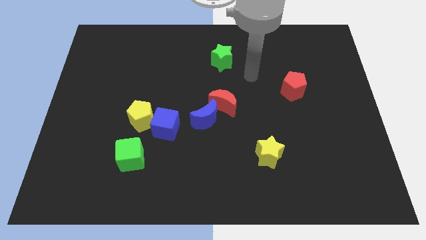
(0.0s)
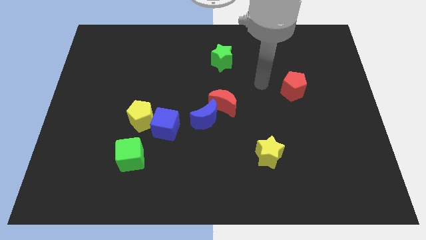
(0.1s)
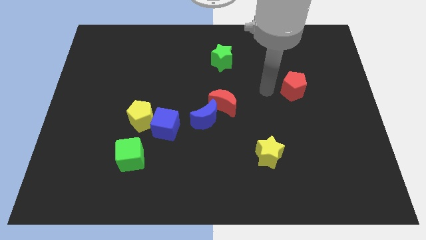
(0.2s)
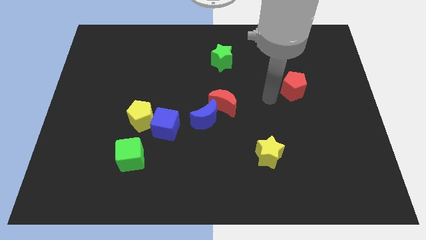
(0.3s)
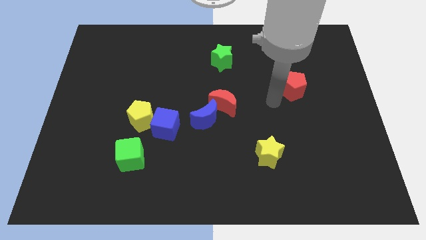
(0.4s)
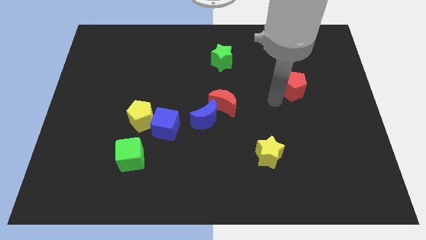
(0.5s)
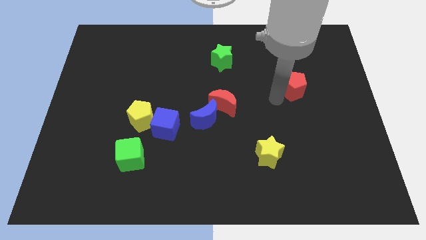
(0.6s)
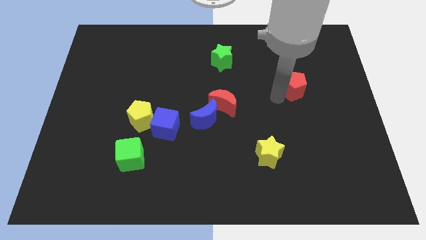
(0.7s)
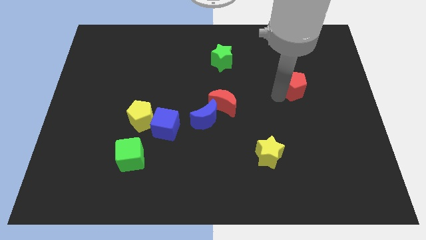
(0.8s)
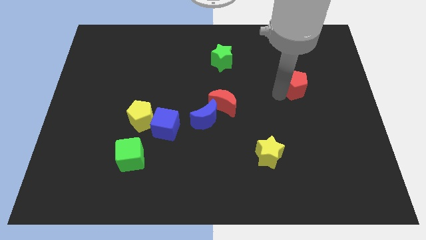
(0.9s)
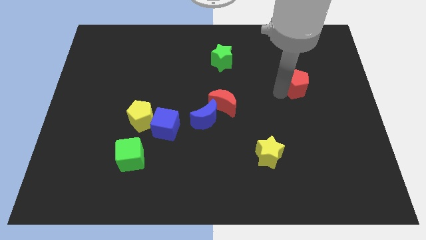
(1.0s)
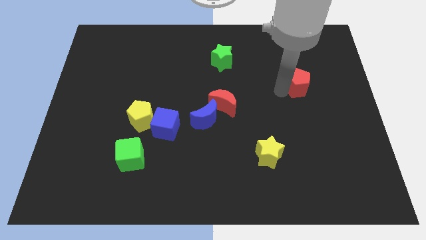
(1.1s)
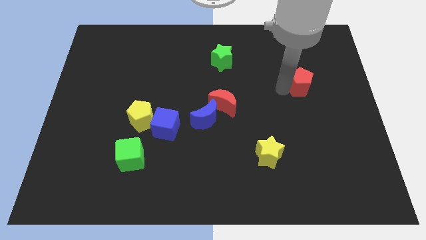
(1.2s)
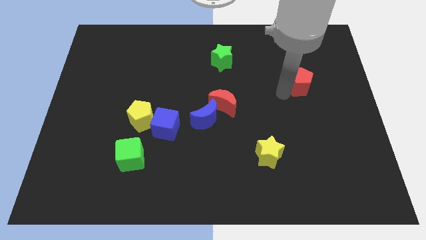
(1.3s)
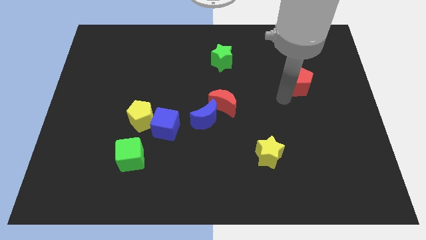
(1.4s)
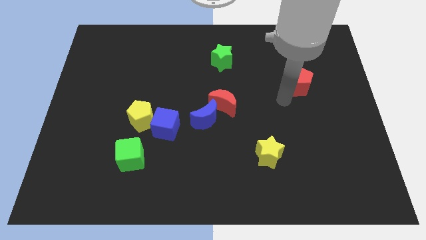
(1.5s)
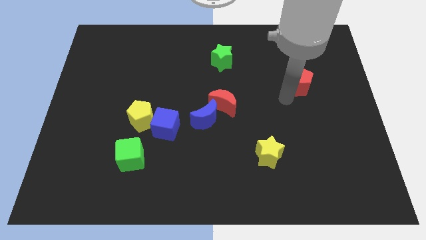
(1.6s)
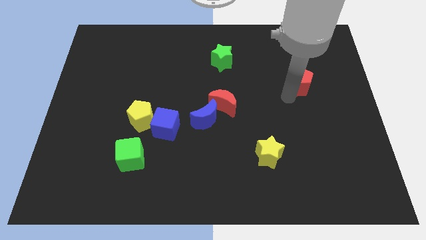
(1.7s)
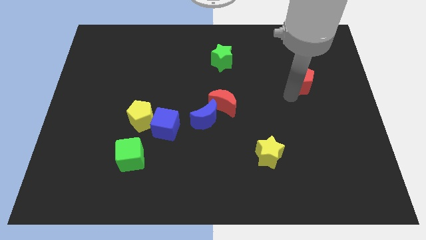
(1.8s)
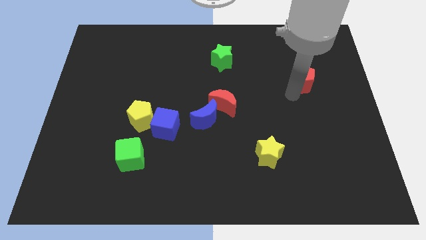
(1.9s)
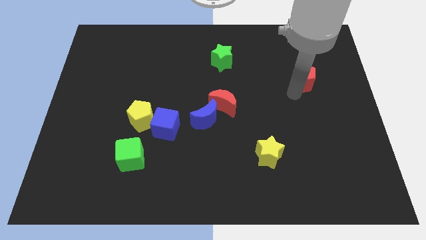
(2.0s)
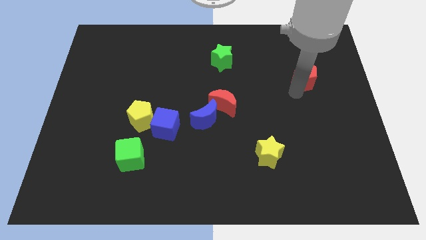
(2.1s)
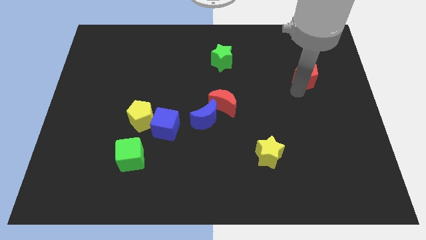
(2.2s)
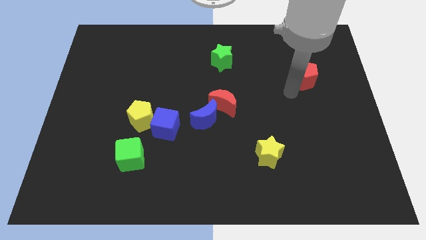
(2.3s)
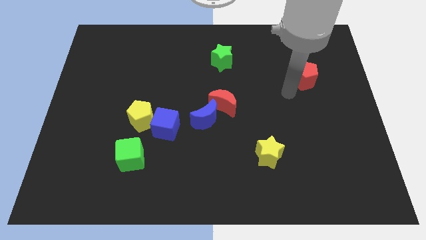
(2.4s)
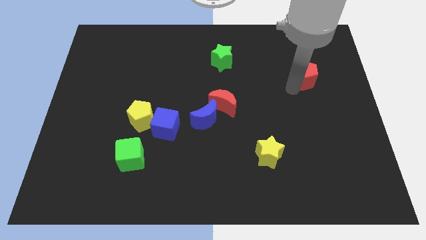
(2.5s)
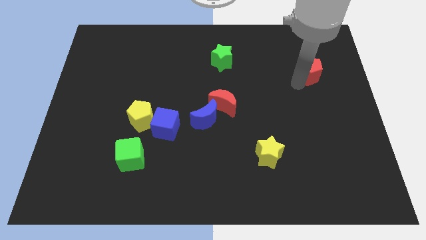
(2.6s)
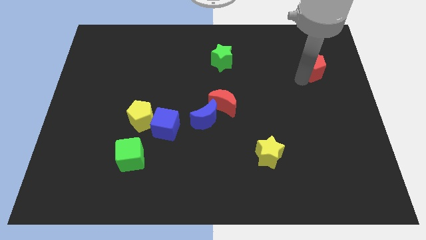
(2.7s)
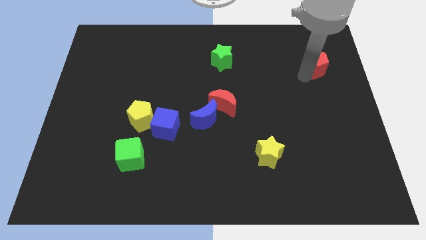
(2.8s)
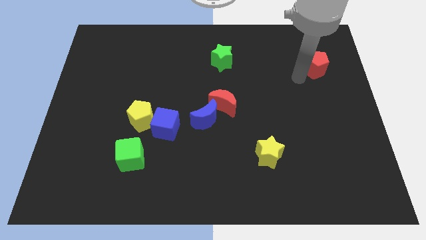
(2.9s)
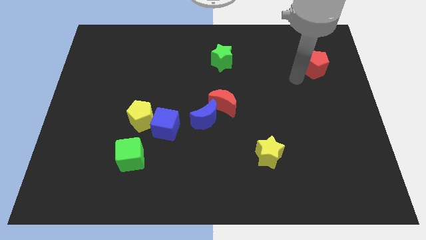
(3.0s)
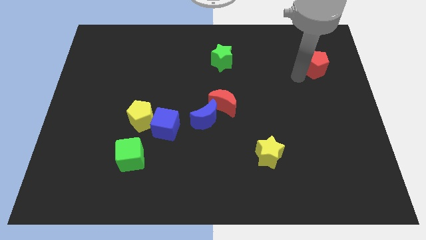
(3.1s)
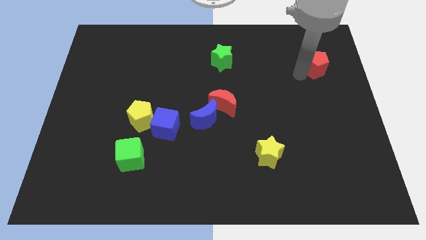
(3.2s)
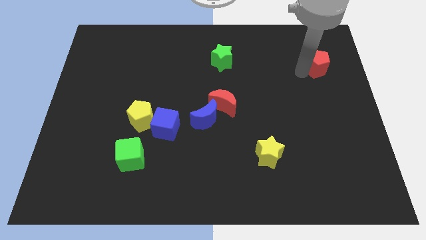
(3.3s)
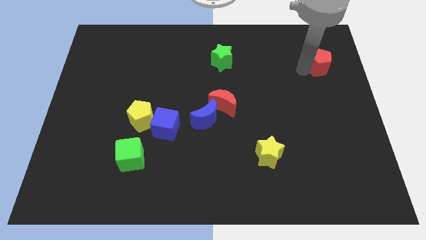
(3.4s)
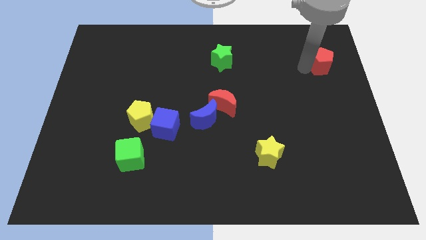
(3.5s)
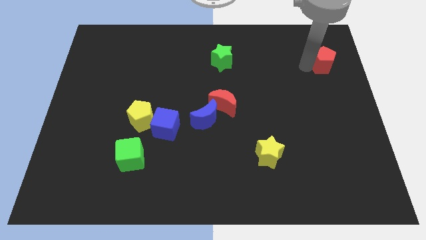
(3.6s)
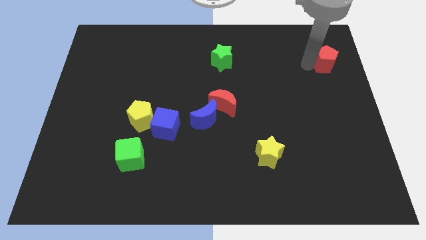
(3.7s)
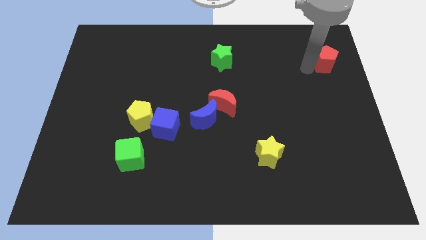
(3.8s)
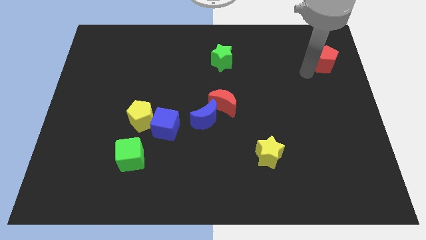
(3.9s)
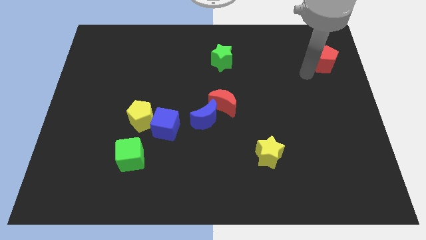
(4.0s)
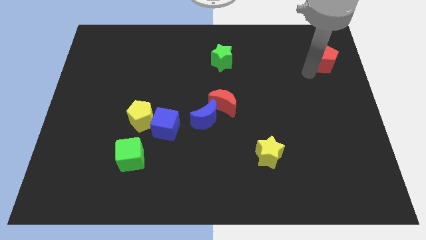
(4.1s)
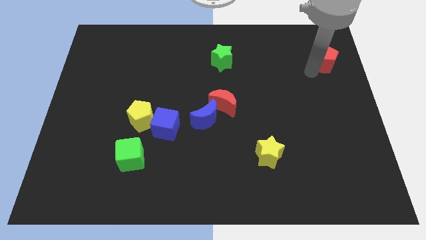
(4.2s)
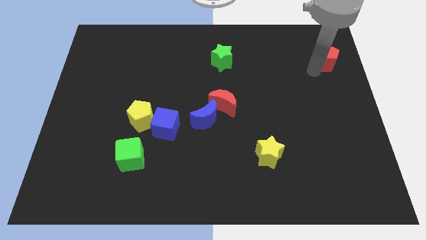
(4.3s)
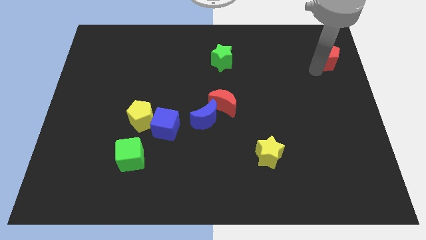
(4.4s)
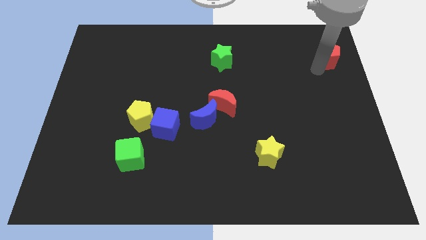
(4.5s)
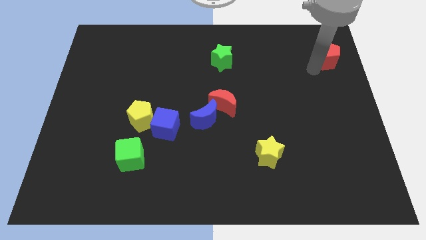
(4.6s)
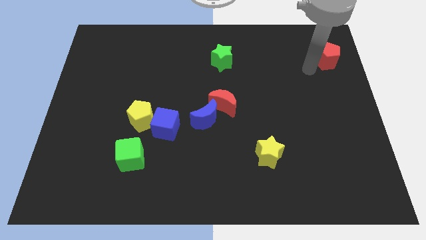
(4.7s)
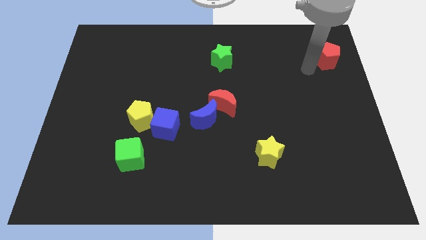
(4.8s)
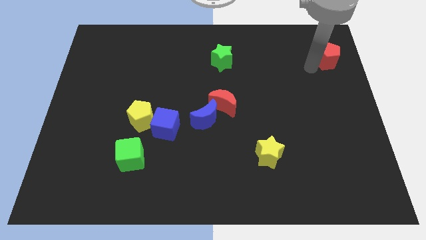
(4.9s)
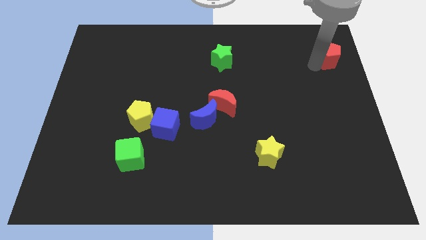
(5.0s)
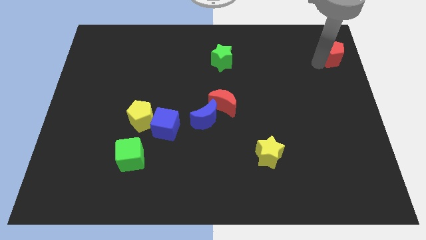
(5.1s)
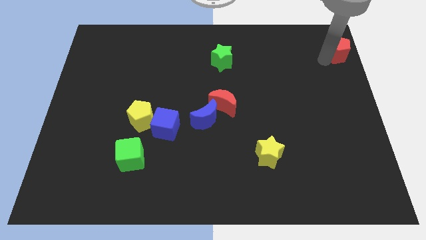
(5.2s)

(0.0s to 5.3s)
put the red pentagon to the top right of the board
